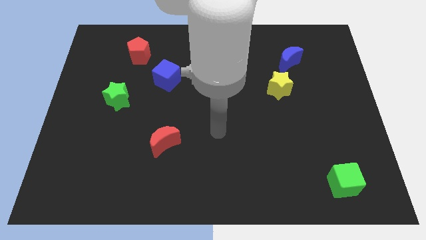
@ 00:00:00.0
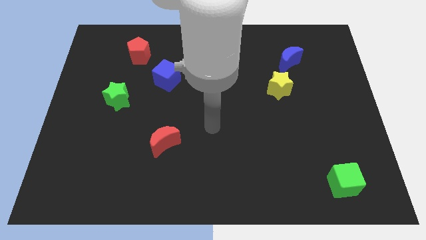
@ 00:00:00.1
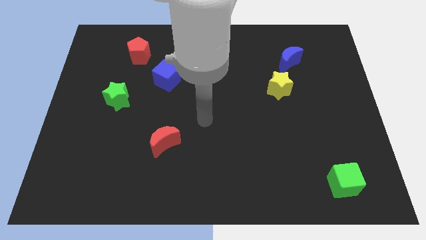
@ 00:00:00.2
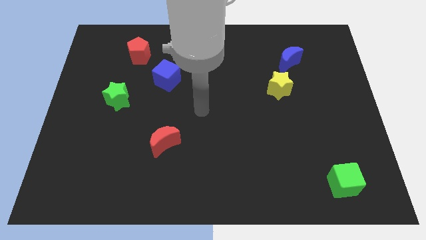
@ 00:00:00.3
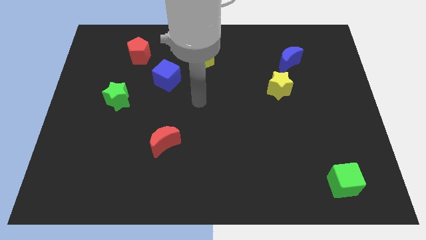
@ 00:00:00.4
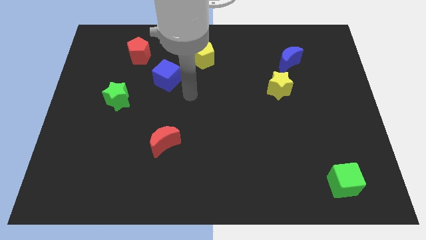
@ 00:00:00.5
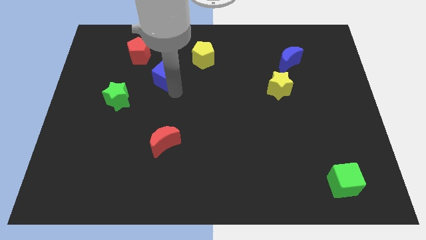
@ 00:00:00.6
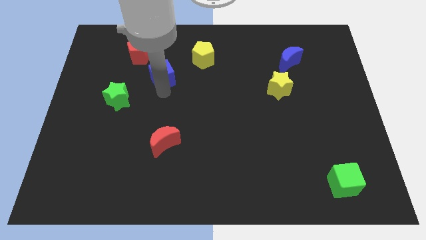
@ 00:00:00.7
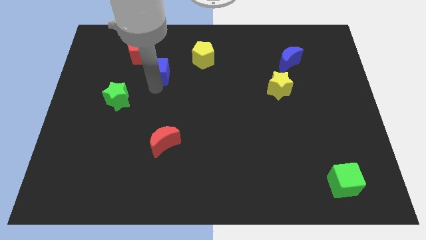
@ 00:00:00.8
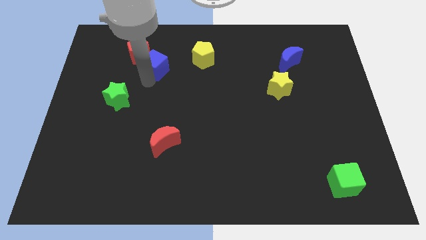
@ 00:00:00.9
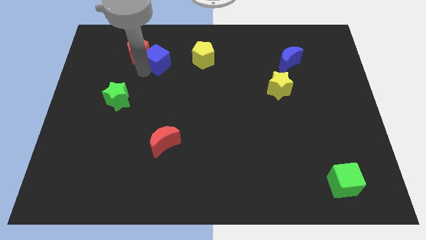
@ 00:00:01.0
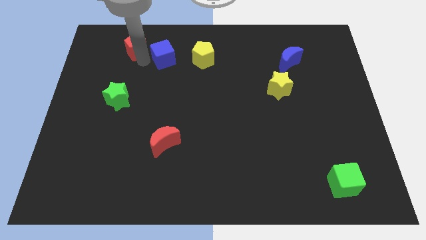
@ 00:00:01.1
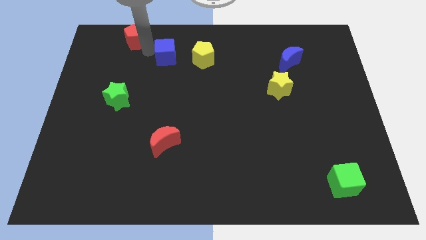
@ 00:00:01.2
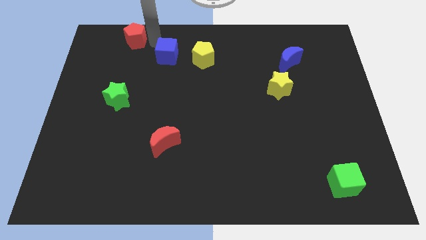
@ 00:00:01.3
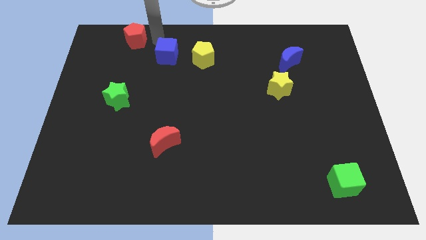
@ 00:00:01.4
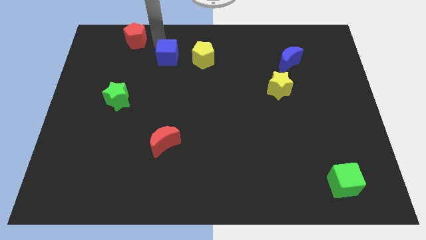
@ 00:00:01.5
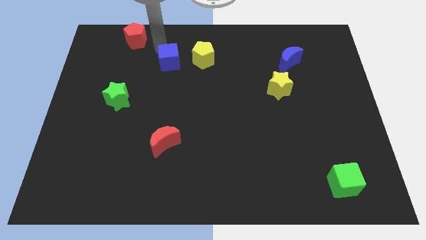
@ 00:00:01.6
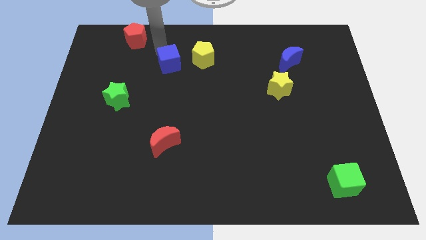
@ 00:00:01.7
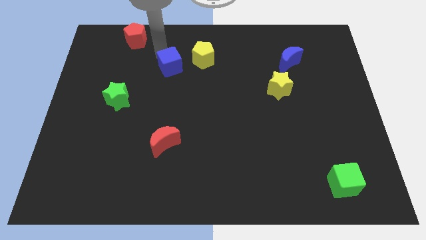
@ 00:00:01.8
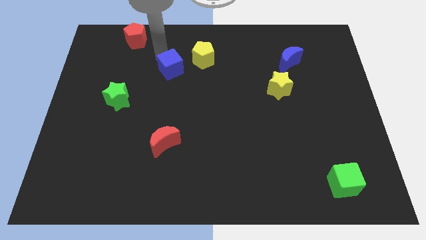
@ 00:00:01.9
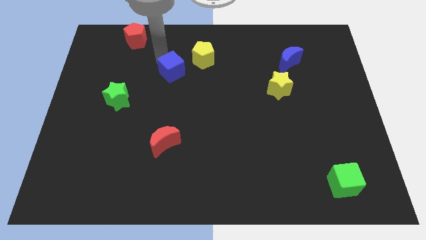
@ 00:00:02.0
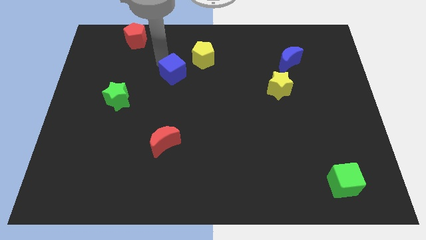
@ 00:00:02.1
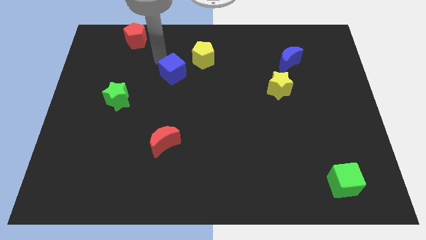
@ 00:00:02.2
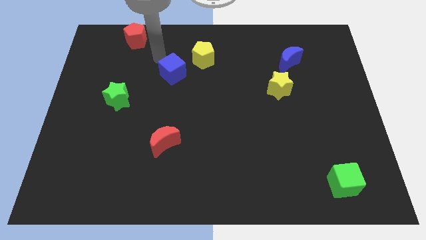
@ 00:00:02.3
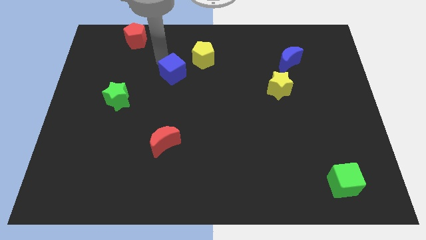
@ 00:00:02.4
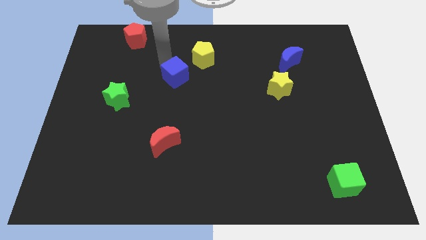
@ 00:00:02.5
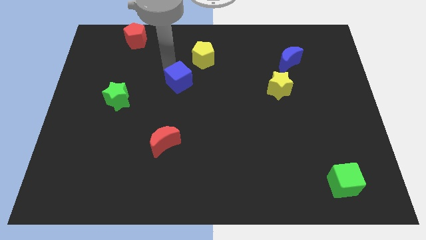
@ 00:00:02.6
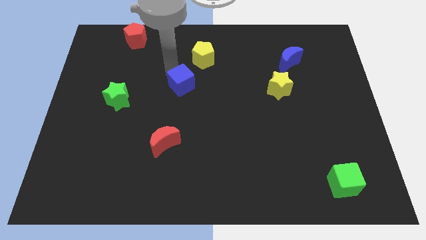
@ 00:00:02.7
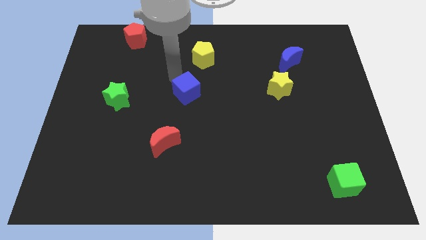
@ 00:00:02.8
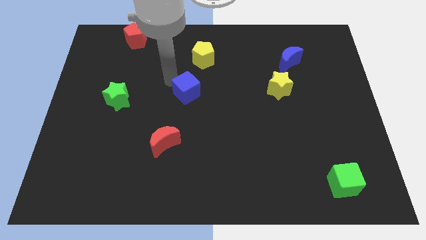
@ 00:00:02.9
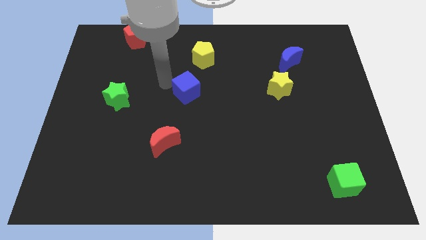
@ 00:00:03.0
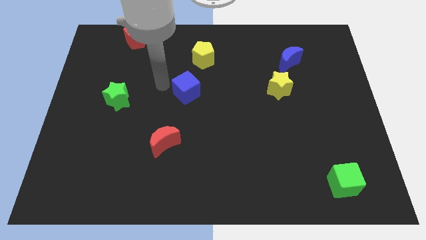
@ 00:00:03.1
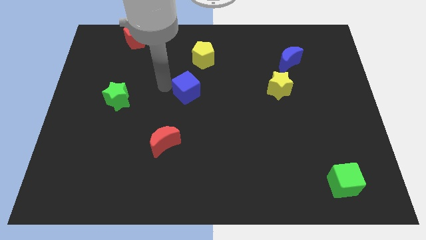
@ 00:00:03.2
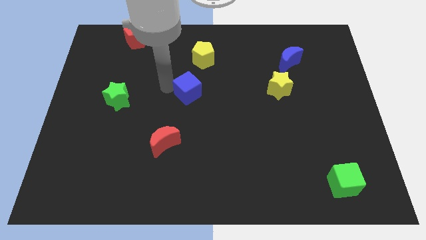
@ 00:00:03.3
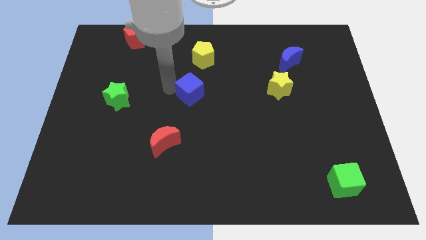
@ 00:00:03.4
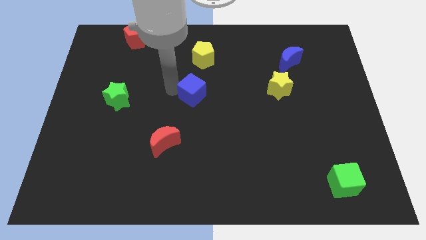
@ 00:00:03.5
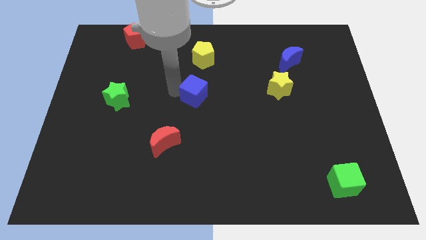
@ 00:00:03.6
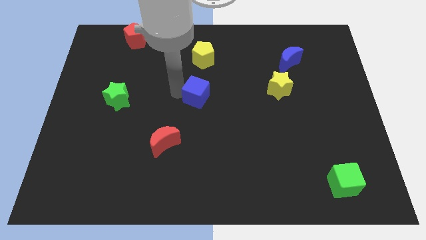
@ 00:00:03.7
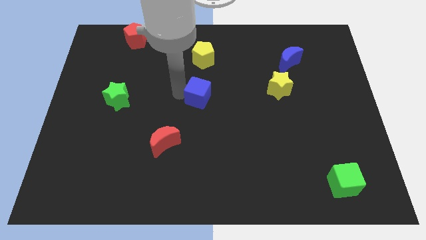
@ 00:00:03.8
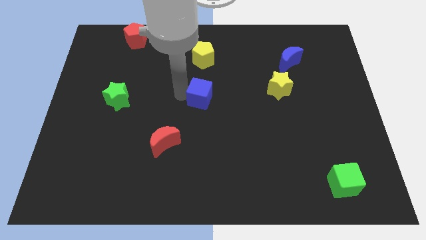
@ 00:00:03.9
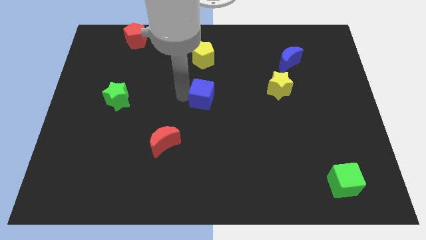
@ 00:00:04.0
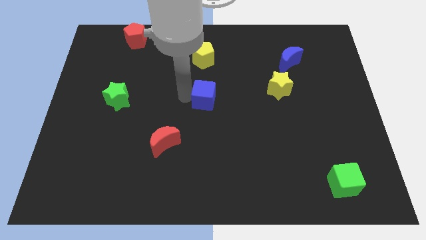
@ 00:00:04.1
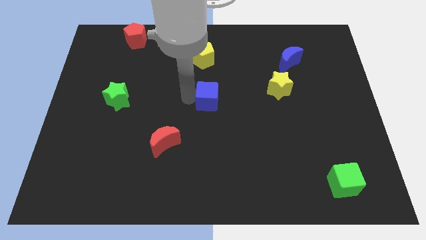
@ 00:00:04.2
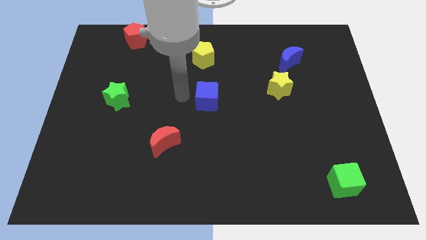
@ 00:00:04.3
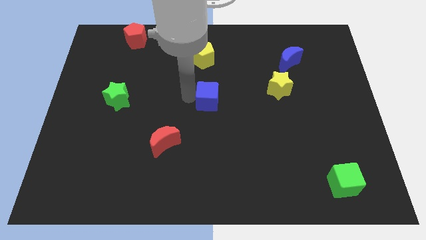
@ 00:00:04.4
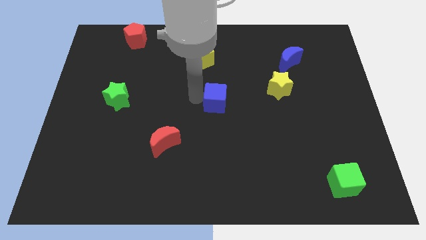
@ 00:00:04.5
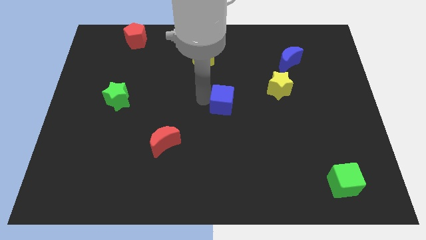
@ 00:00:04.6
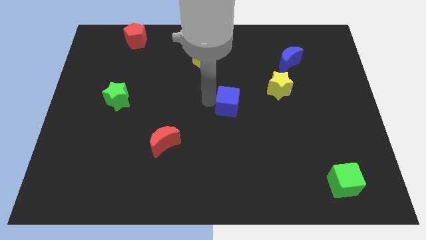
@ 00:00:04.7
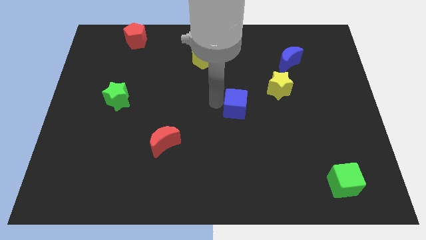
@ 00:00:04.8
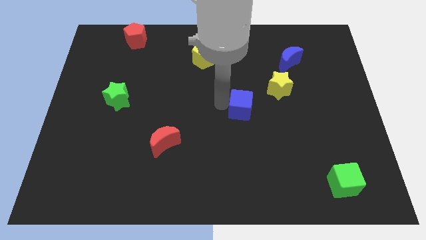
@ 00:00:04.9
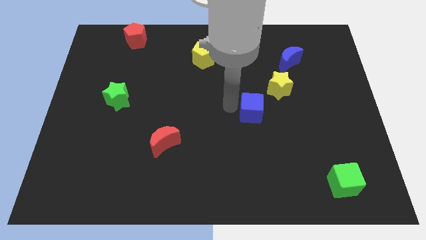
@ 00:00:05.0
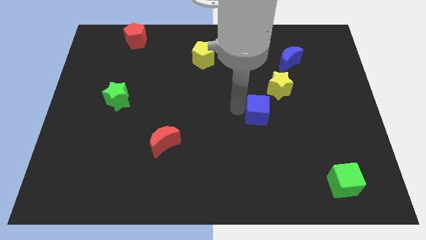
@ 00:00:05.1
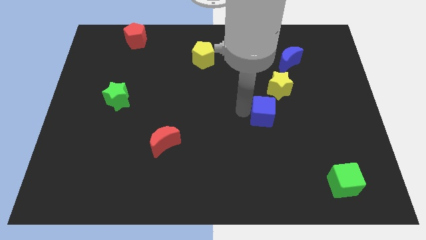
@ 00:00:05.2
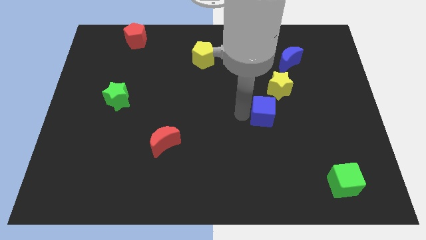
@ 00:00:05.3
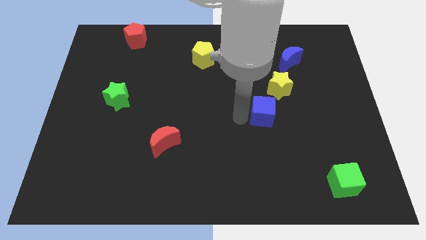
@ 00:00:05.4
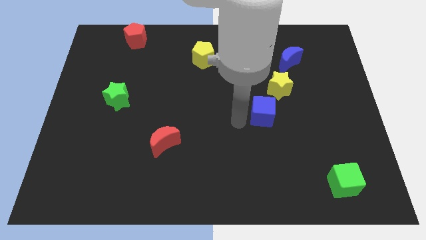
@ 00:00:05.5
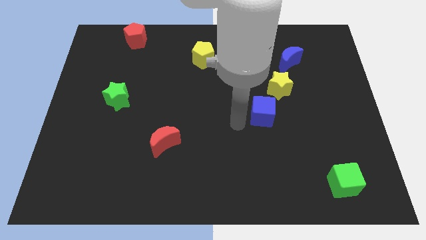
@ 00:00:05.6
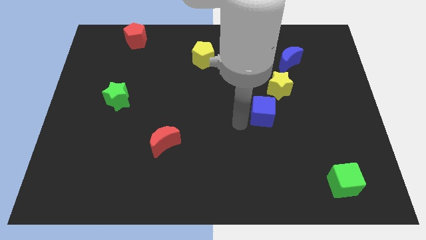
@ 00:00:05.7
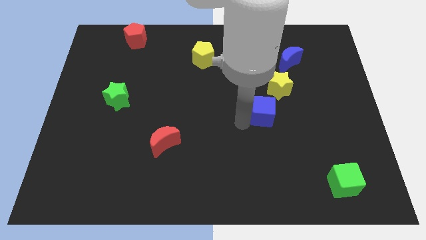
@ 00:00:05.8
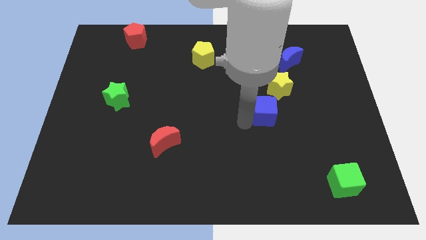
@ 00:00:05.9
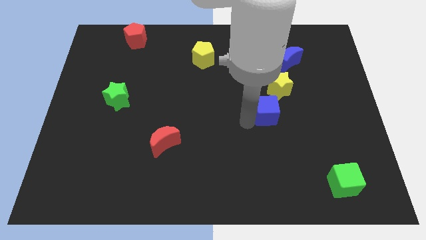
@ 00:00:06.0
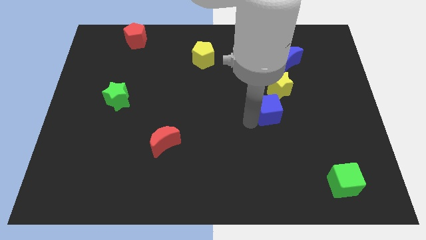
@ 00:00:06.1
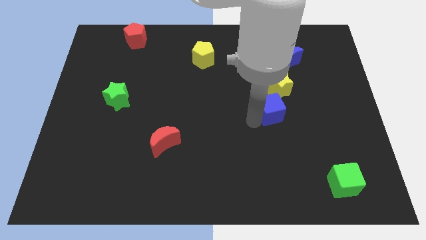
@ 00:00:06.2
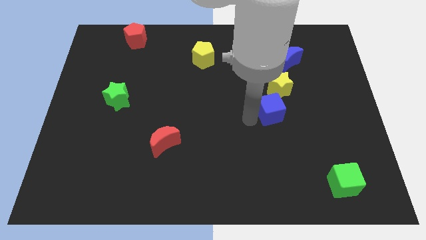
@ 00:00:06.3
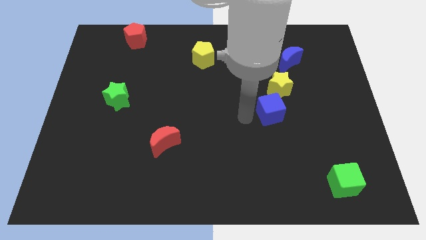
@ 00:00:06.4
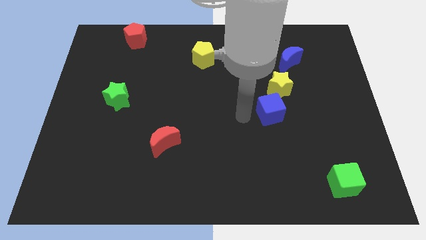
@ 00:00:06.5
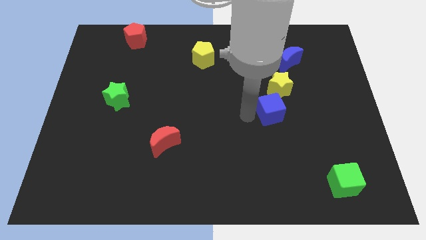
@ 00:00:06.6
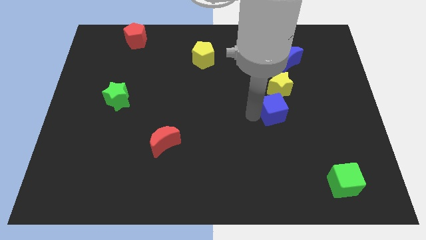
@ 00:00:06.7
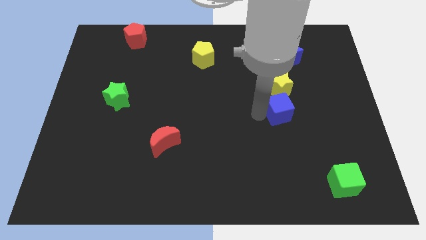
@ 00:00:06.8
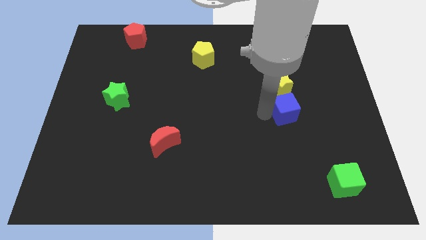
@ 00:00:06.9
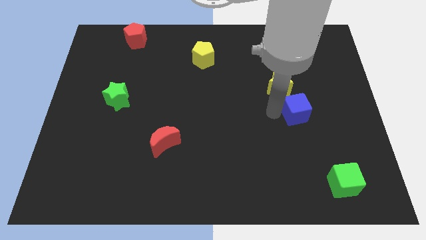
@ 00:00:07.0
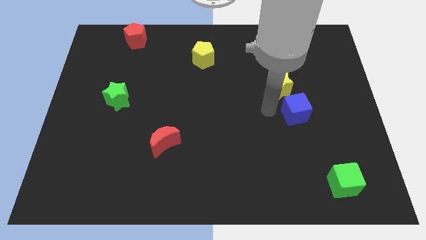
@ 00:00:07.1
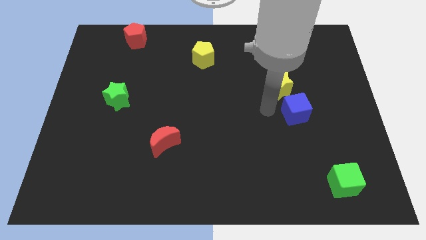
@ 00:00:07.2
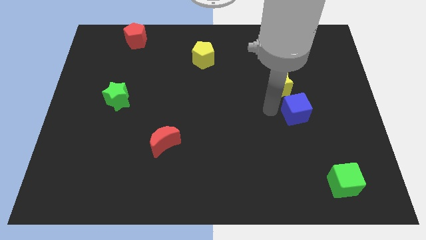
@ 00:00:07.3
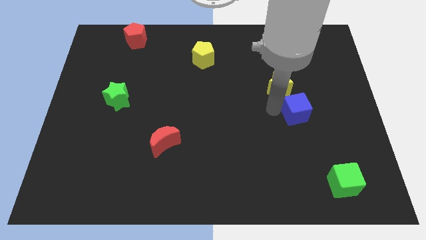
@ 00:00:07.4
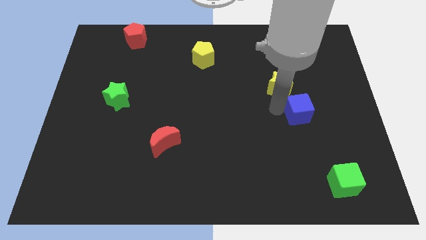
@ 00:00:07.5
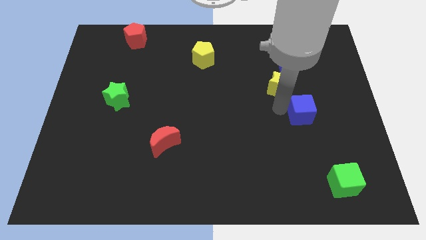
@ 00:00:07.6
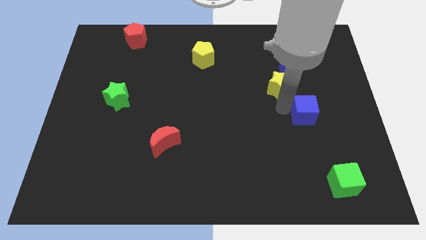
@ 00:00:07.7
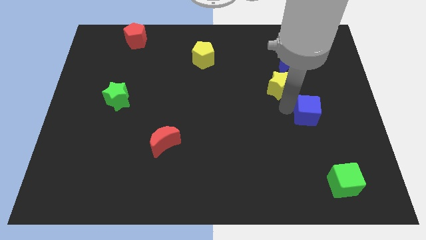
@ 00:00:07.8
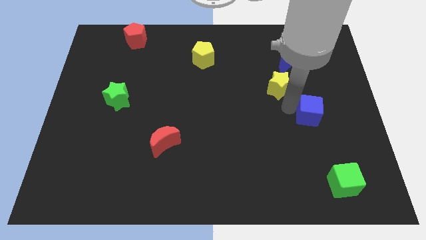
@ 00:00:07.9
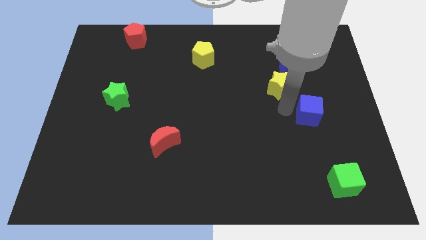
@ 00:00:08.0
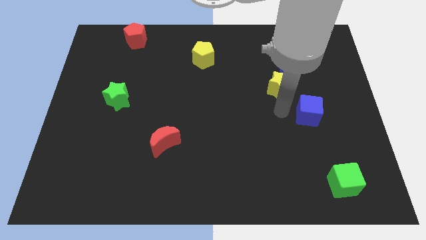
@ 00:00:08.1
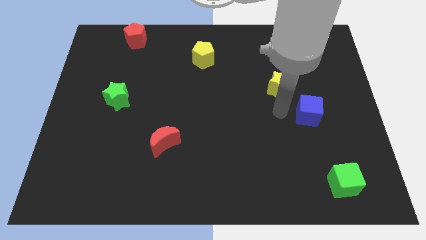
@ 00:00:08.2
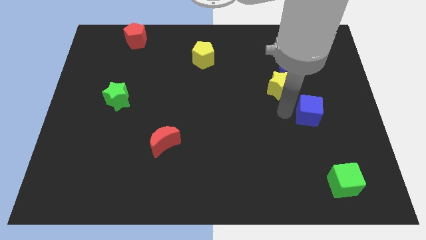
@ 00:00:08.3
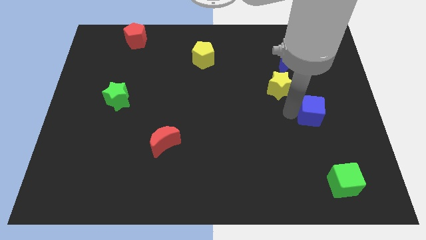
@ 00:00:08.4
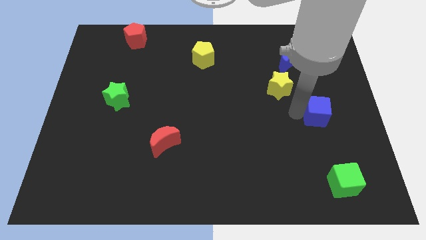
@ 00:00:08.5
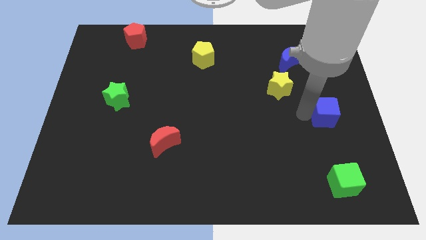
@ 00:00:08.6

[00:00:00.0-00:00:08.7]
move the blue cube to the right side
